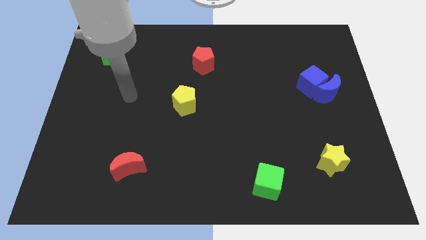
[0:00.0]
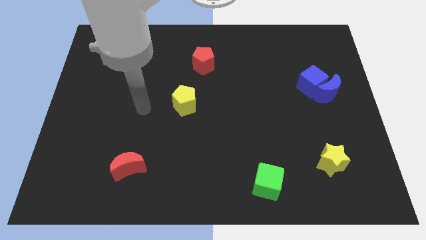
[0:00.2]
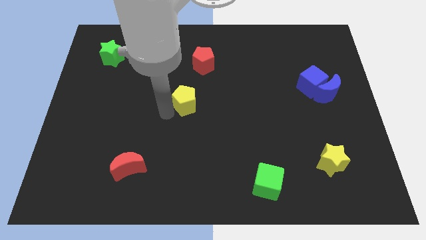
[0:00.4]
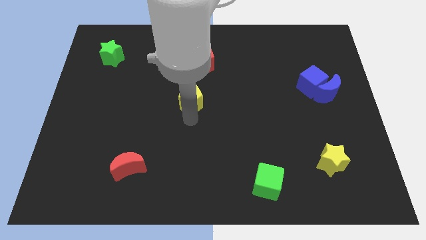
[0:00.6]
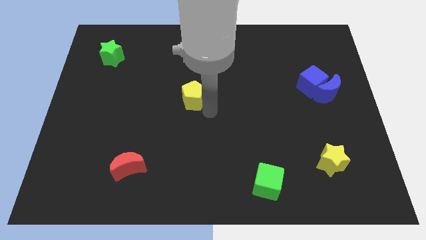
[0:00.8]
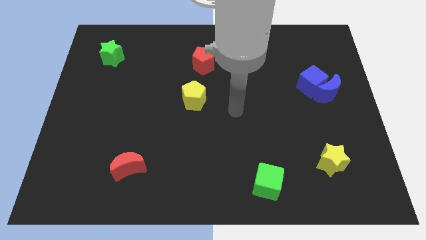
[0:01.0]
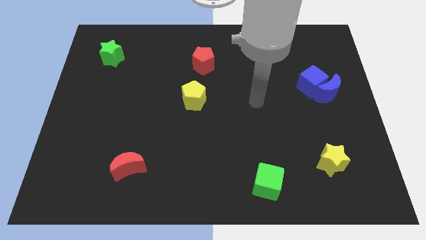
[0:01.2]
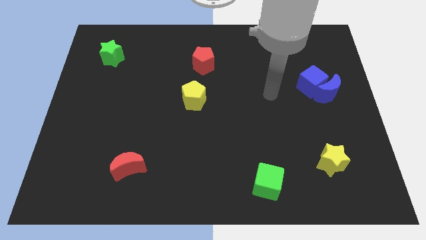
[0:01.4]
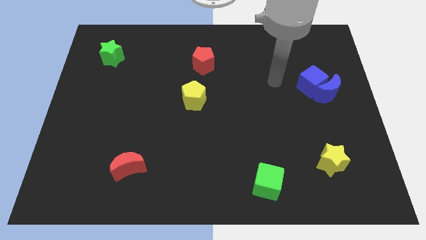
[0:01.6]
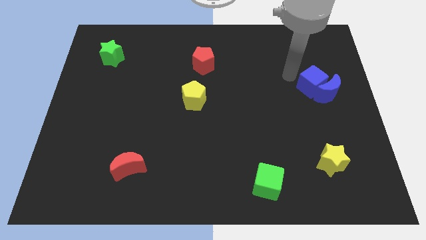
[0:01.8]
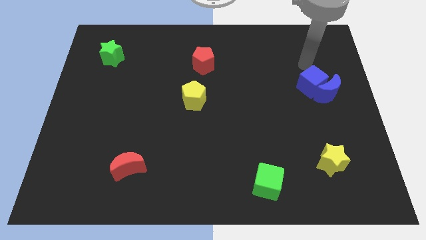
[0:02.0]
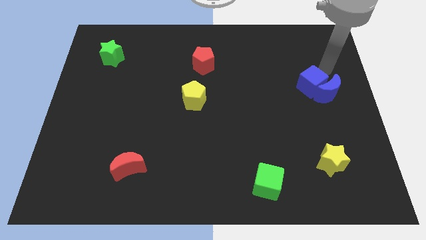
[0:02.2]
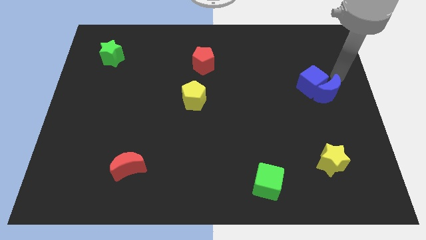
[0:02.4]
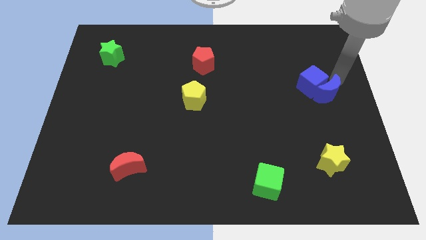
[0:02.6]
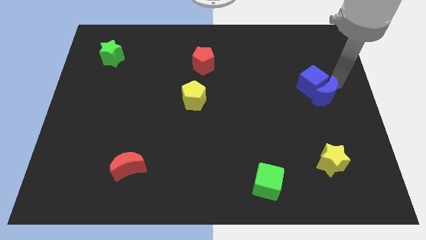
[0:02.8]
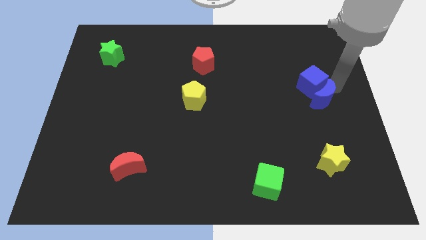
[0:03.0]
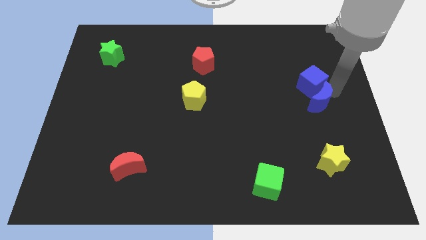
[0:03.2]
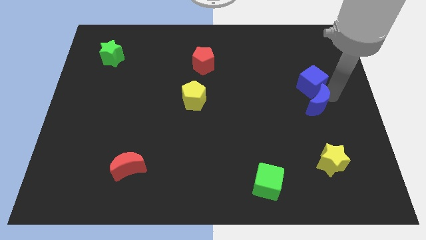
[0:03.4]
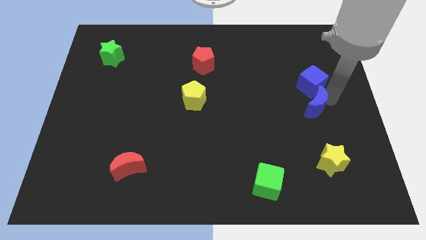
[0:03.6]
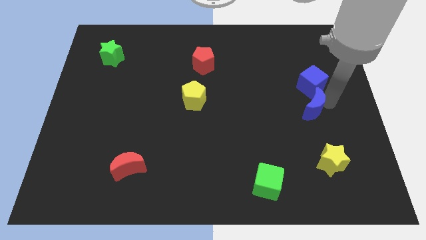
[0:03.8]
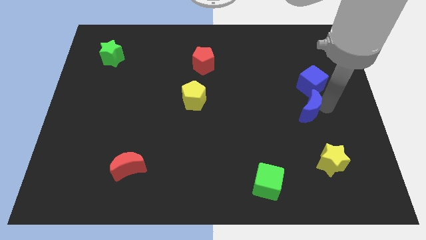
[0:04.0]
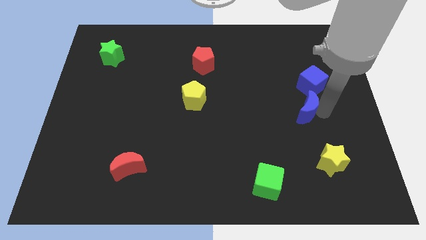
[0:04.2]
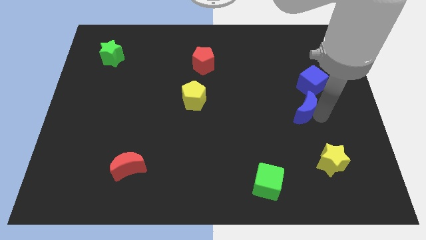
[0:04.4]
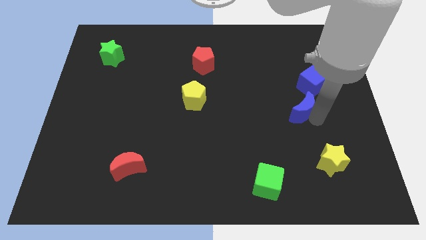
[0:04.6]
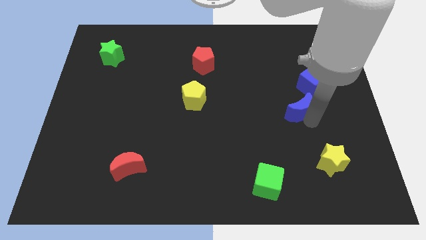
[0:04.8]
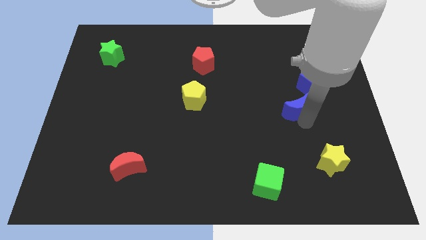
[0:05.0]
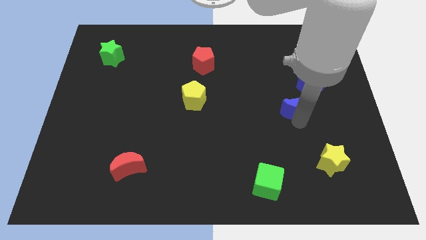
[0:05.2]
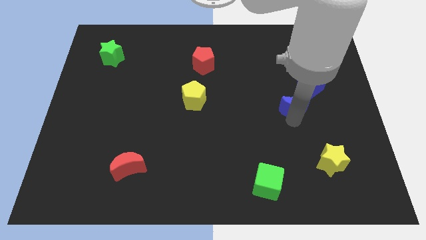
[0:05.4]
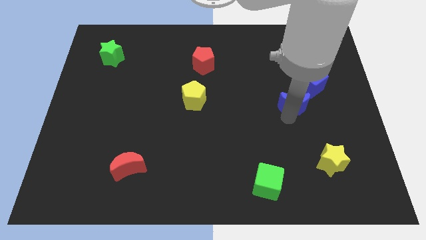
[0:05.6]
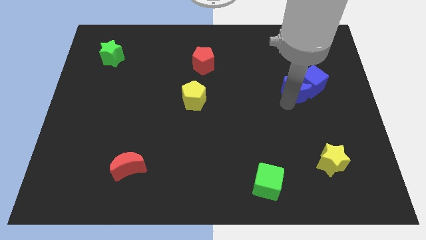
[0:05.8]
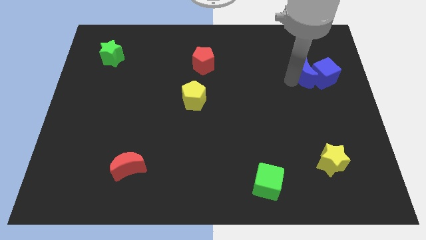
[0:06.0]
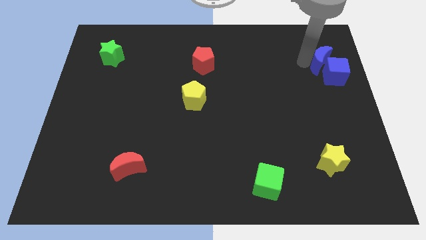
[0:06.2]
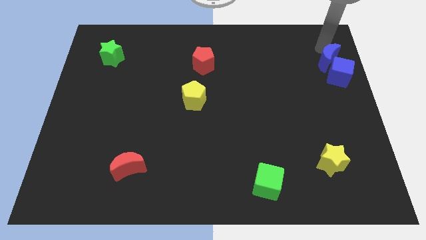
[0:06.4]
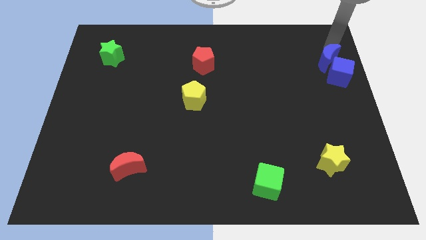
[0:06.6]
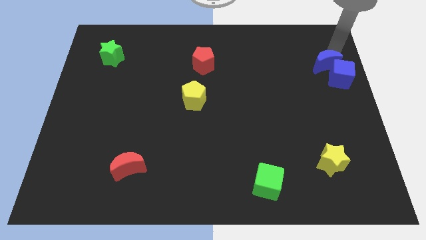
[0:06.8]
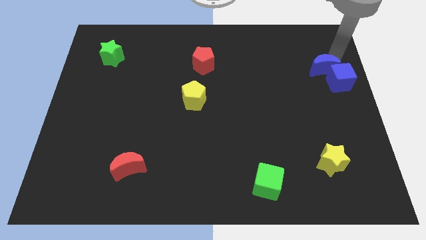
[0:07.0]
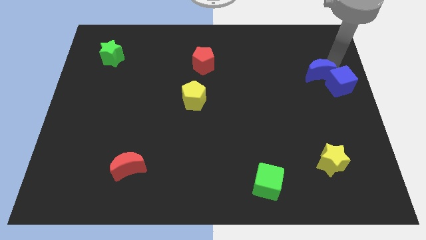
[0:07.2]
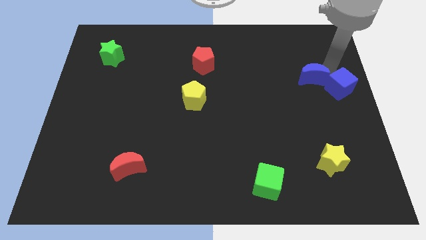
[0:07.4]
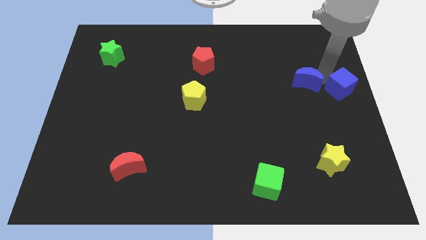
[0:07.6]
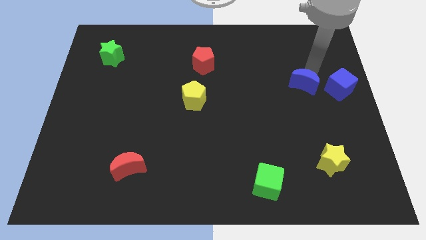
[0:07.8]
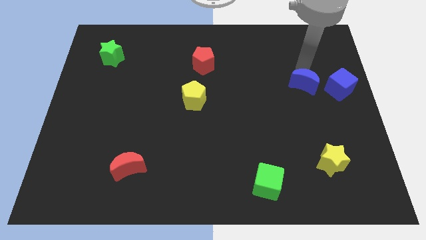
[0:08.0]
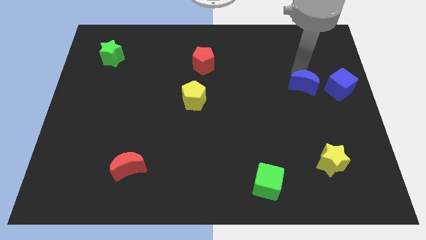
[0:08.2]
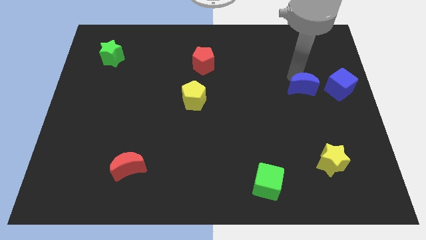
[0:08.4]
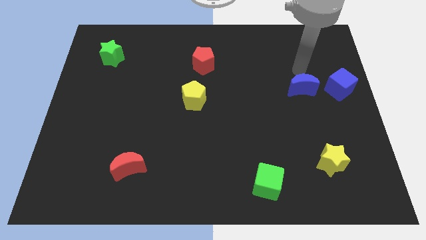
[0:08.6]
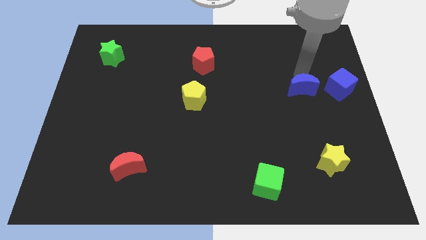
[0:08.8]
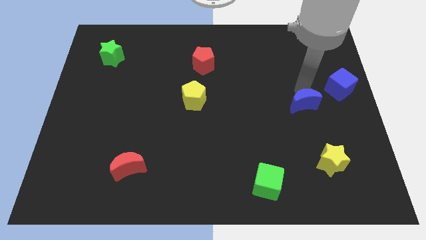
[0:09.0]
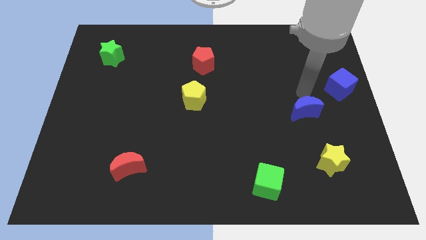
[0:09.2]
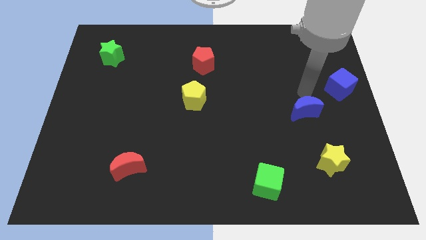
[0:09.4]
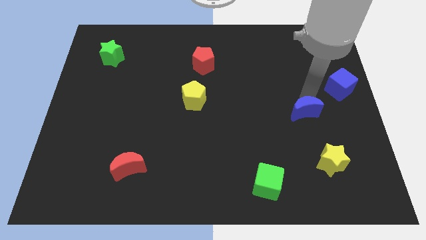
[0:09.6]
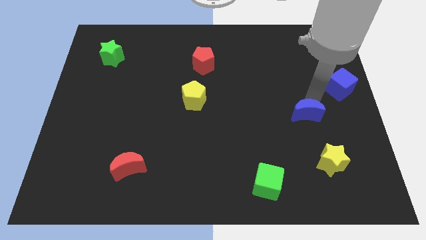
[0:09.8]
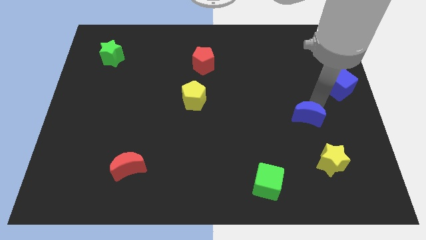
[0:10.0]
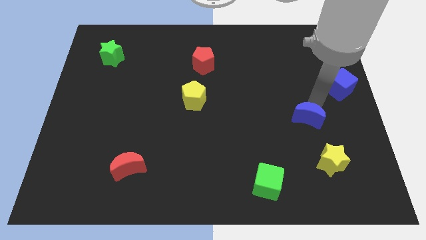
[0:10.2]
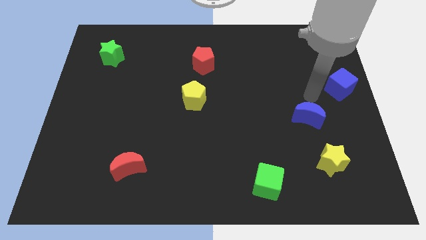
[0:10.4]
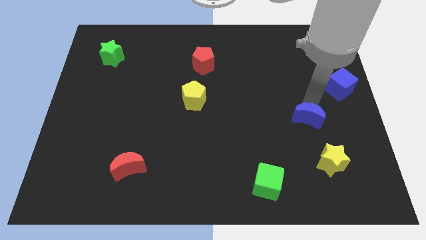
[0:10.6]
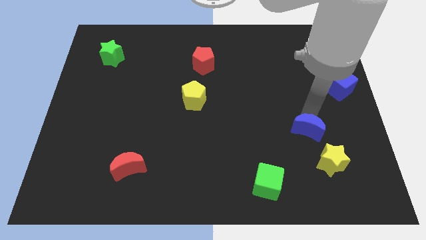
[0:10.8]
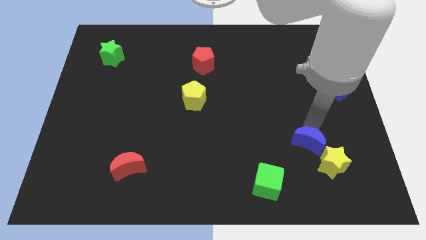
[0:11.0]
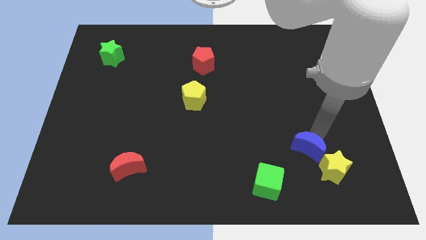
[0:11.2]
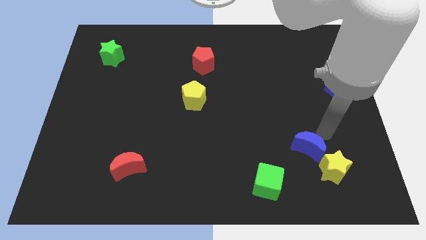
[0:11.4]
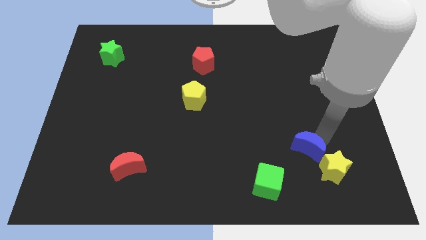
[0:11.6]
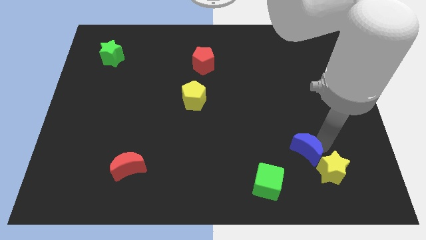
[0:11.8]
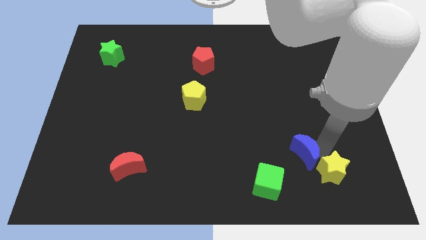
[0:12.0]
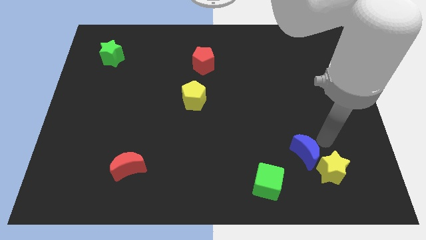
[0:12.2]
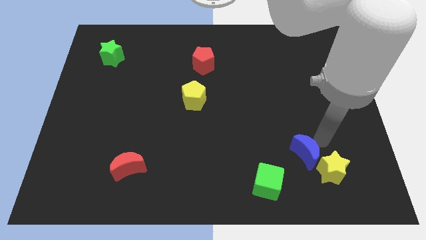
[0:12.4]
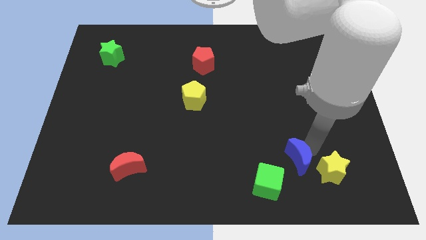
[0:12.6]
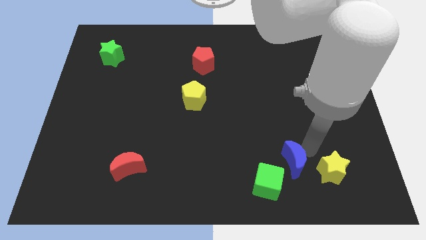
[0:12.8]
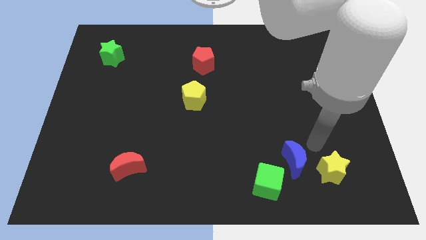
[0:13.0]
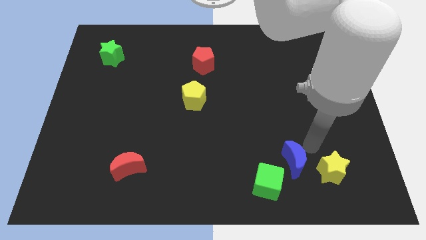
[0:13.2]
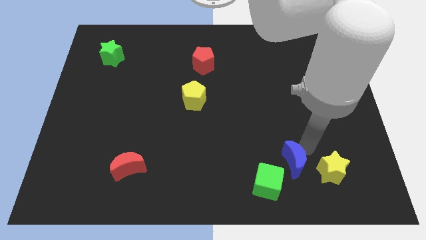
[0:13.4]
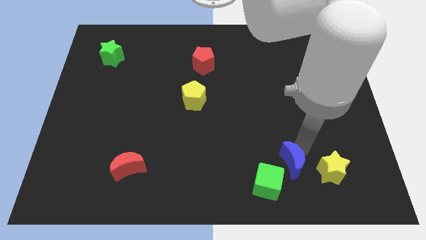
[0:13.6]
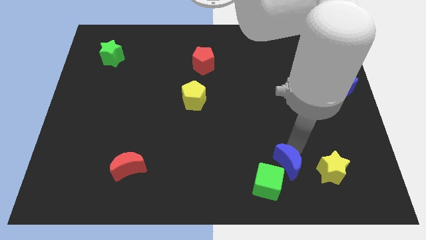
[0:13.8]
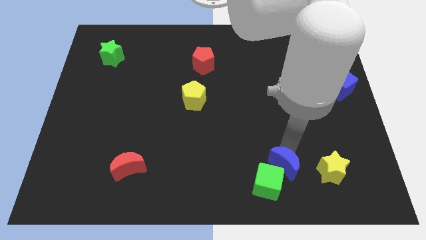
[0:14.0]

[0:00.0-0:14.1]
slide the blue moon close to the green cube

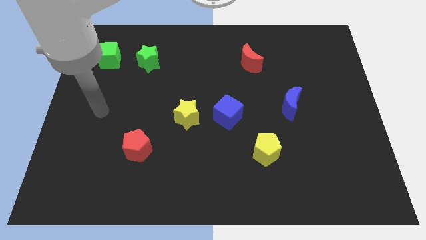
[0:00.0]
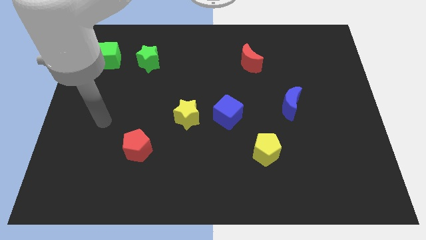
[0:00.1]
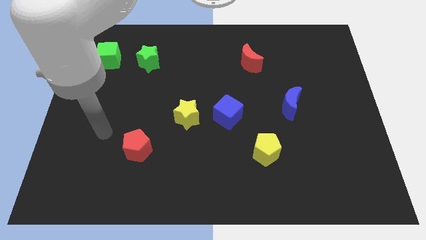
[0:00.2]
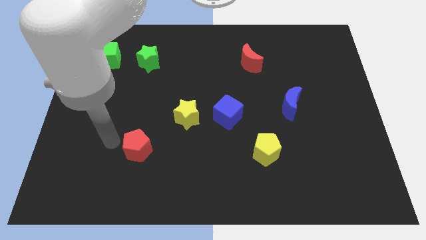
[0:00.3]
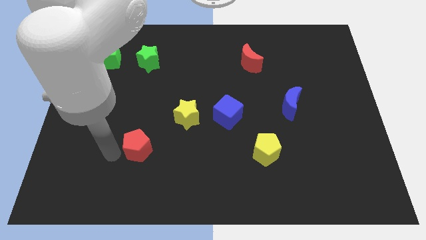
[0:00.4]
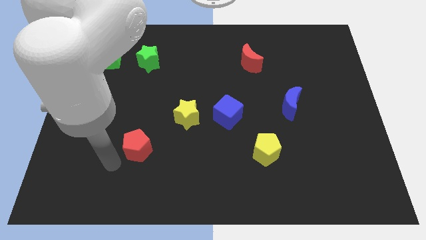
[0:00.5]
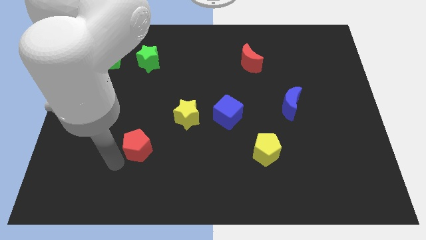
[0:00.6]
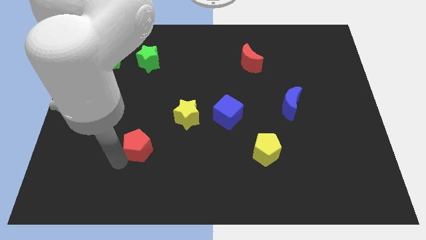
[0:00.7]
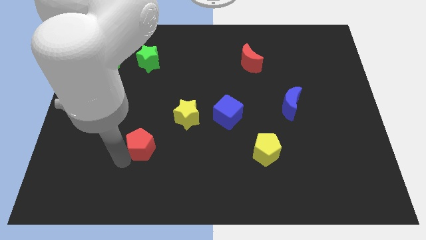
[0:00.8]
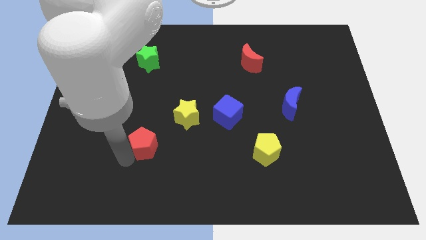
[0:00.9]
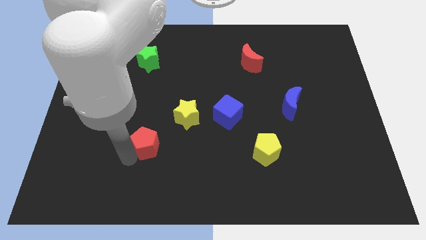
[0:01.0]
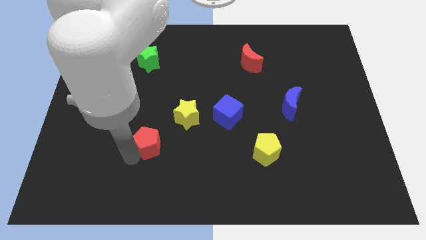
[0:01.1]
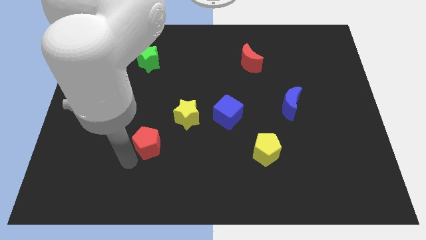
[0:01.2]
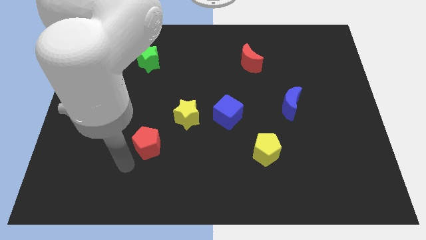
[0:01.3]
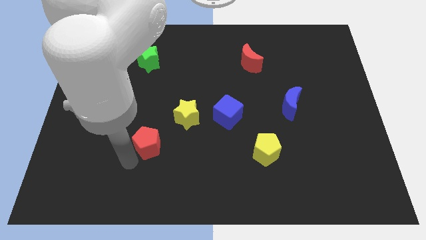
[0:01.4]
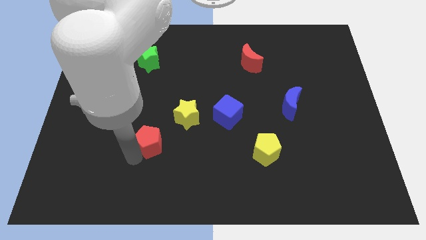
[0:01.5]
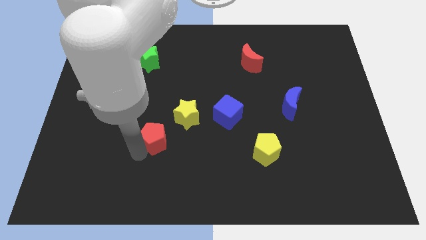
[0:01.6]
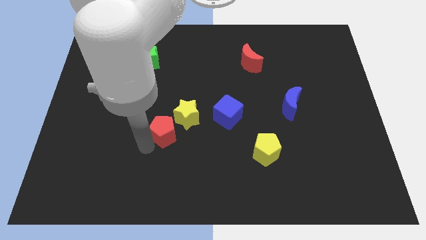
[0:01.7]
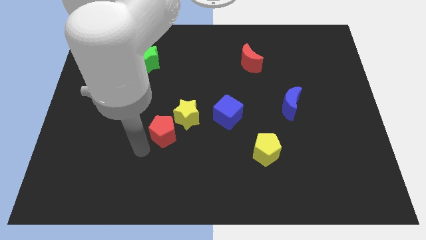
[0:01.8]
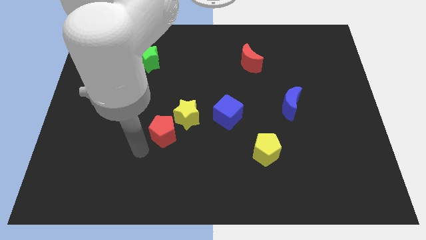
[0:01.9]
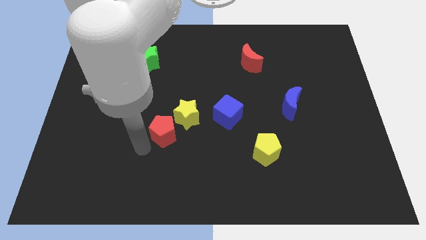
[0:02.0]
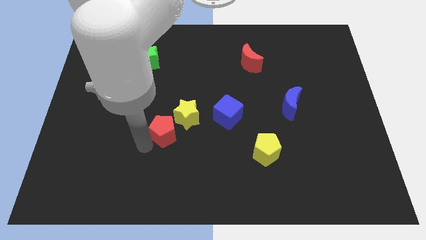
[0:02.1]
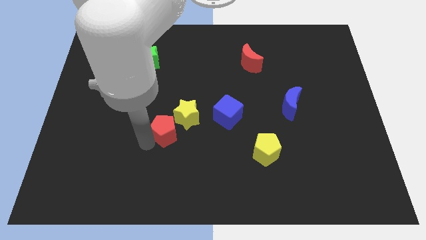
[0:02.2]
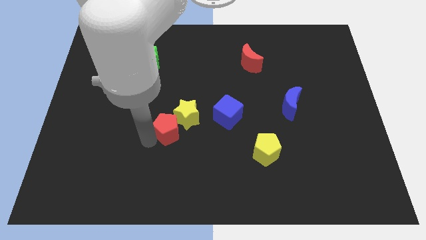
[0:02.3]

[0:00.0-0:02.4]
slide the red pentagon close to the yellow star
